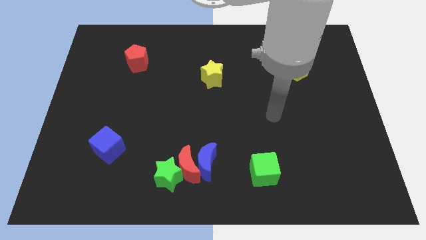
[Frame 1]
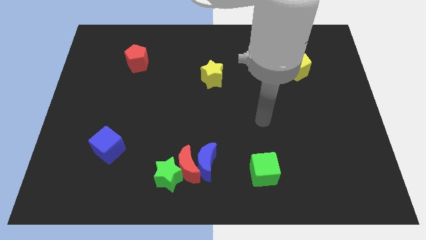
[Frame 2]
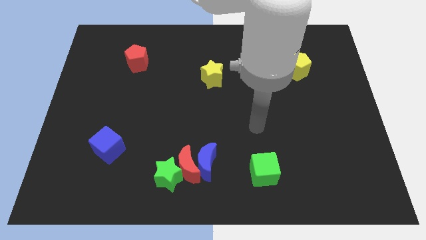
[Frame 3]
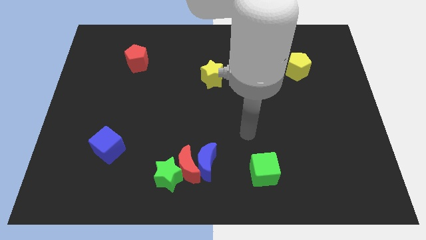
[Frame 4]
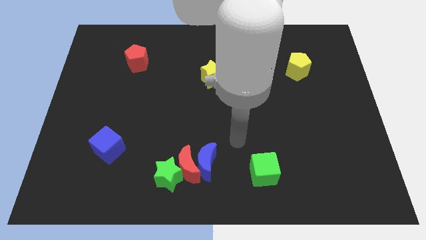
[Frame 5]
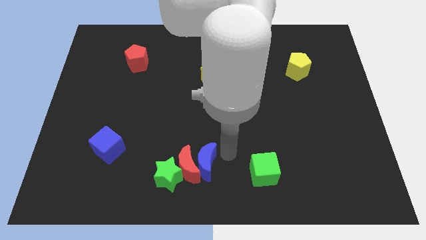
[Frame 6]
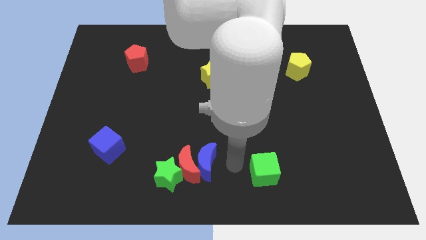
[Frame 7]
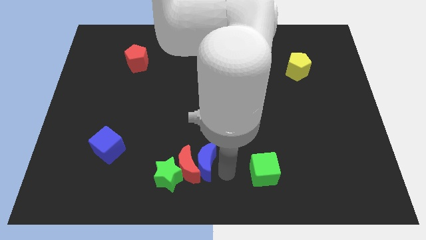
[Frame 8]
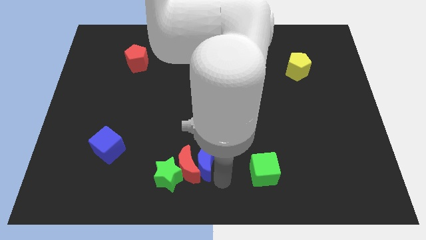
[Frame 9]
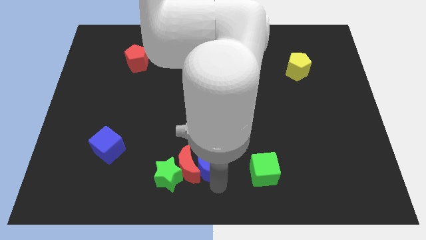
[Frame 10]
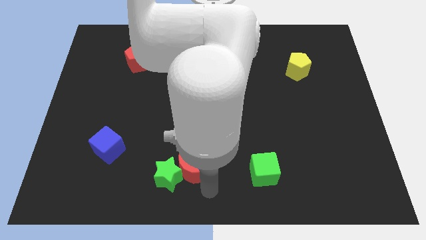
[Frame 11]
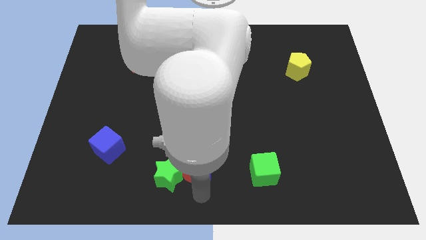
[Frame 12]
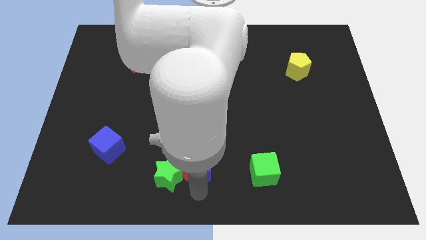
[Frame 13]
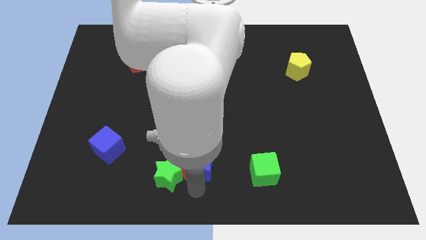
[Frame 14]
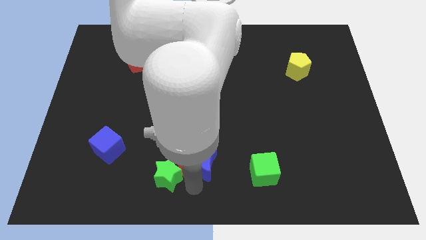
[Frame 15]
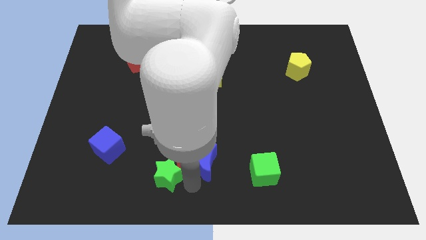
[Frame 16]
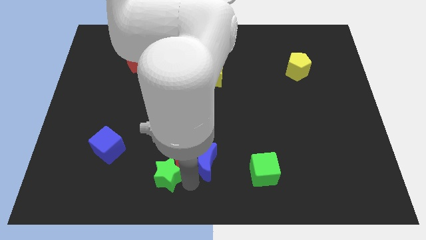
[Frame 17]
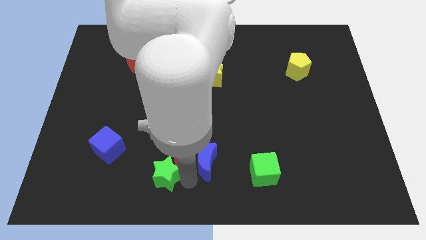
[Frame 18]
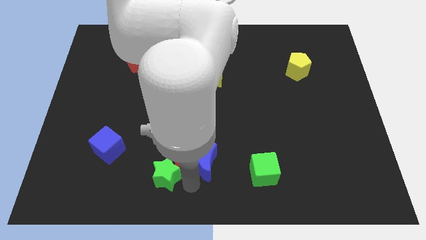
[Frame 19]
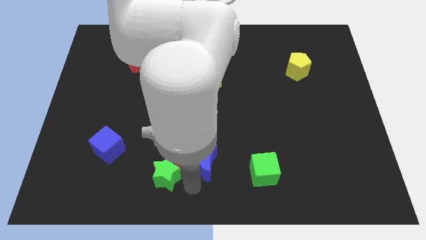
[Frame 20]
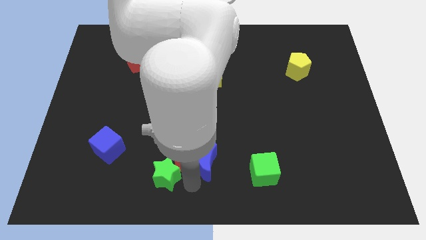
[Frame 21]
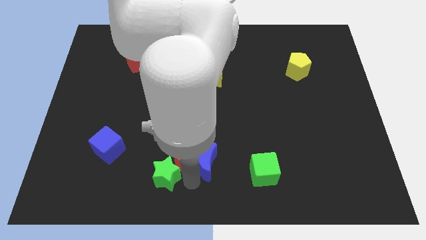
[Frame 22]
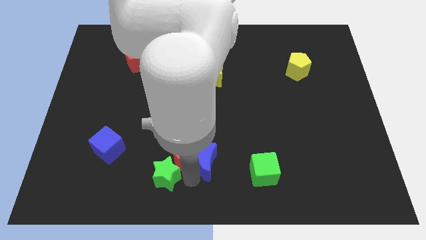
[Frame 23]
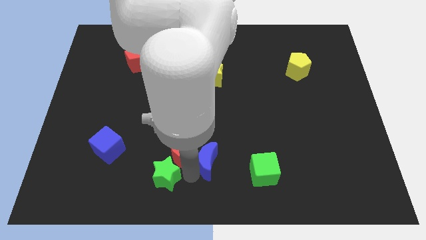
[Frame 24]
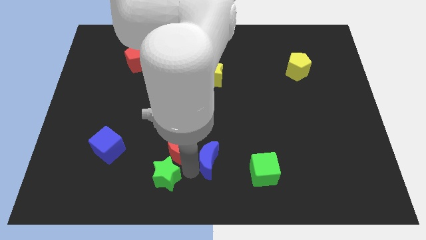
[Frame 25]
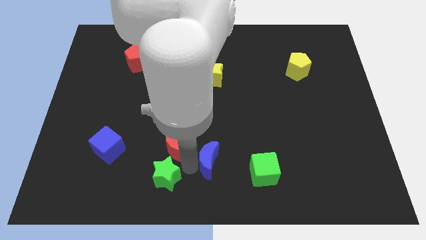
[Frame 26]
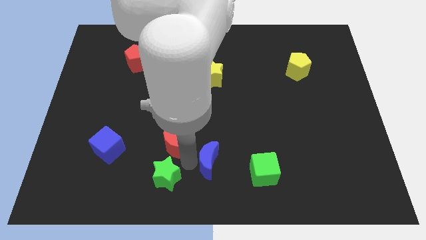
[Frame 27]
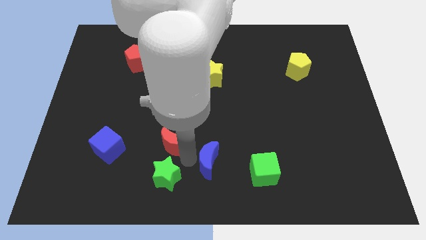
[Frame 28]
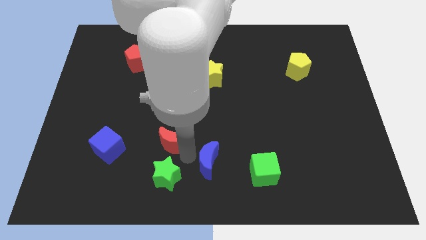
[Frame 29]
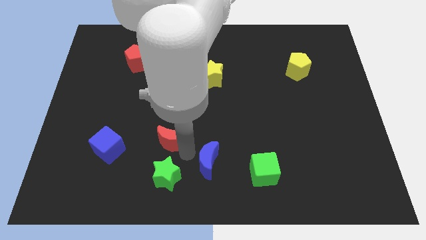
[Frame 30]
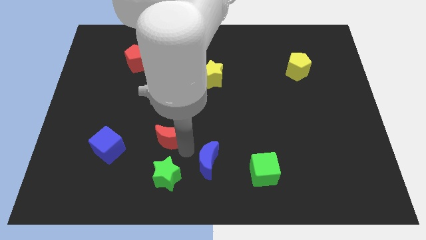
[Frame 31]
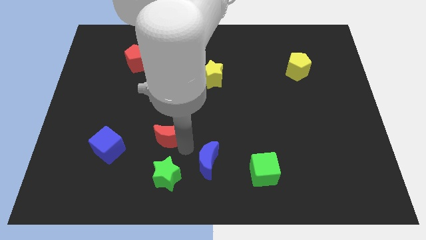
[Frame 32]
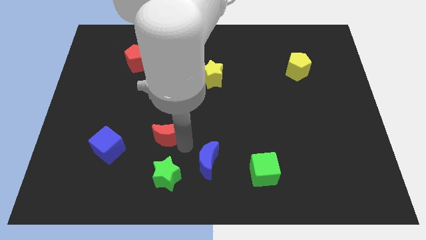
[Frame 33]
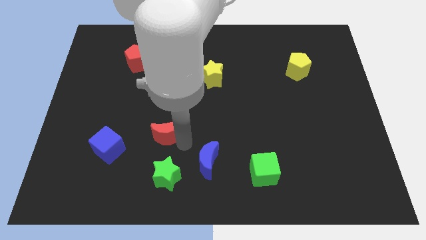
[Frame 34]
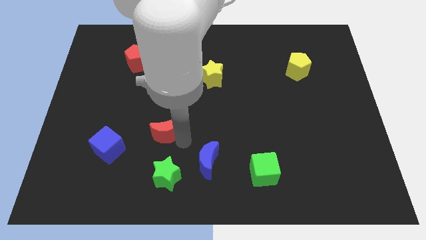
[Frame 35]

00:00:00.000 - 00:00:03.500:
separate the red moon from the blue moon and green star

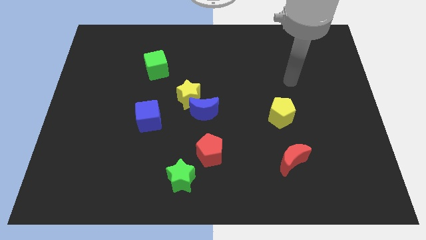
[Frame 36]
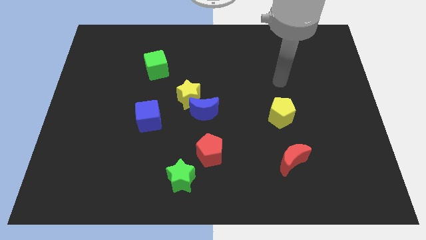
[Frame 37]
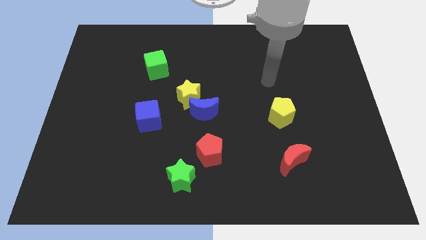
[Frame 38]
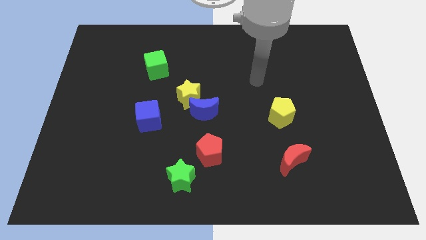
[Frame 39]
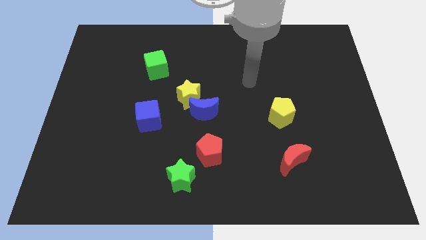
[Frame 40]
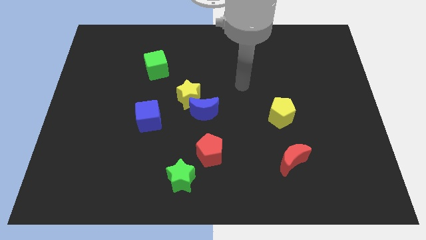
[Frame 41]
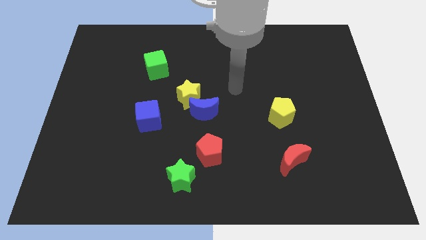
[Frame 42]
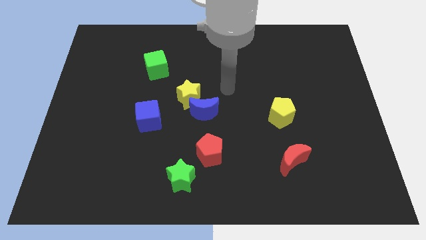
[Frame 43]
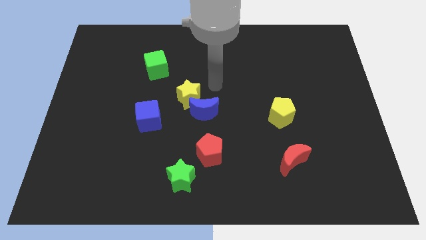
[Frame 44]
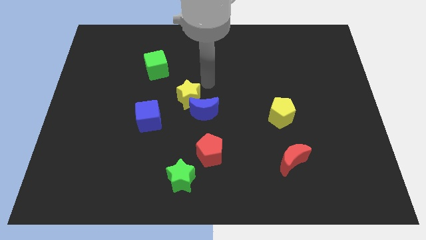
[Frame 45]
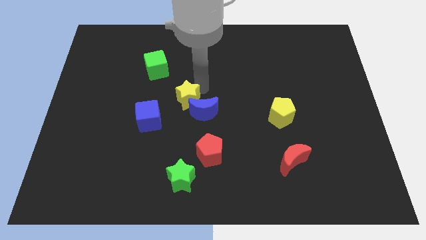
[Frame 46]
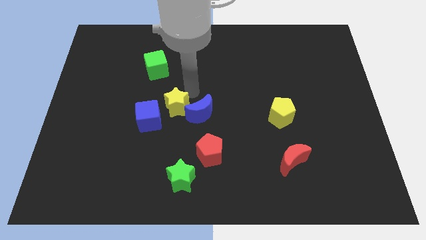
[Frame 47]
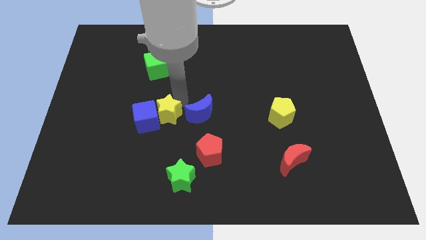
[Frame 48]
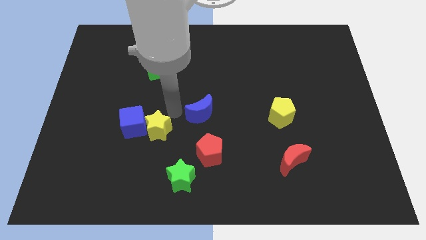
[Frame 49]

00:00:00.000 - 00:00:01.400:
separate the blue moon from the yellow star

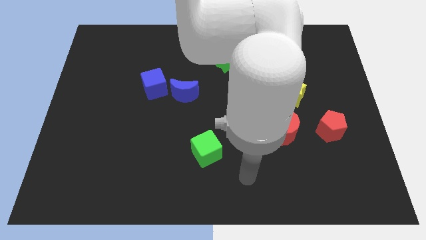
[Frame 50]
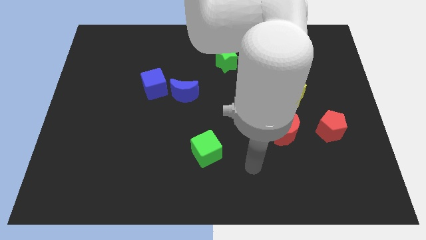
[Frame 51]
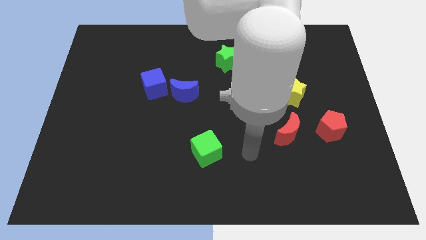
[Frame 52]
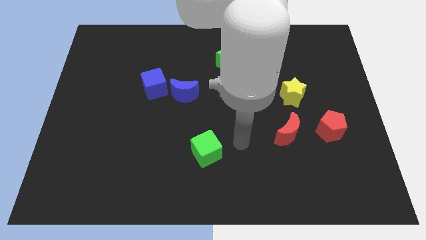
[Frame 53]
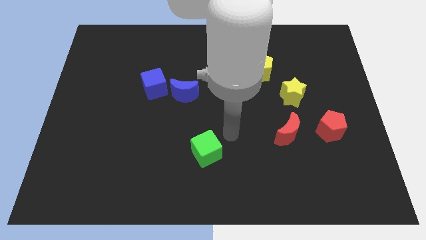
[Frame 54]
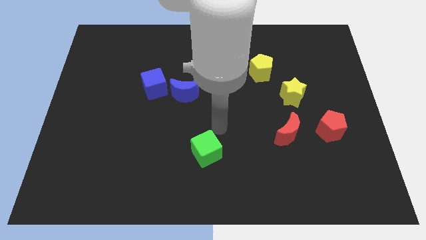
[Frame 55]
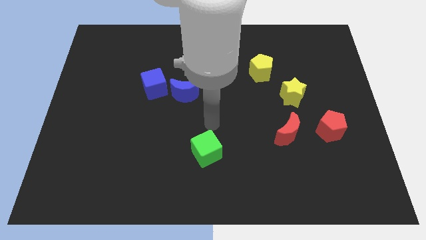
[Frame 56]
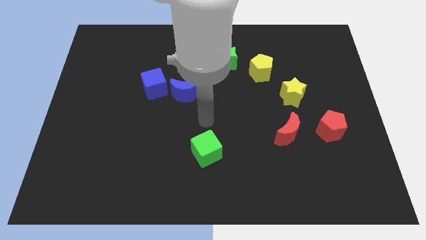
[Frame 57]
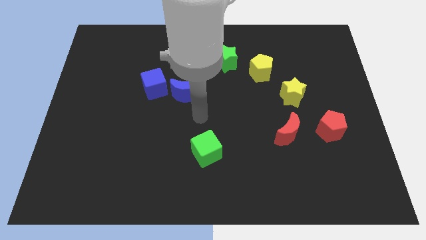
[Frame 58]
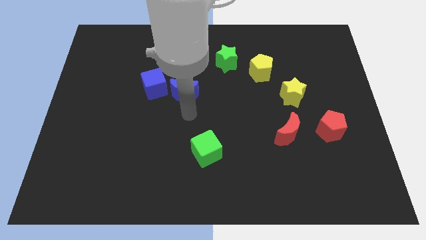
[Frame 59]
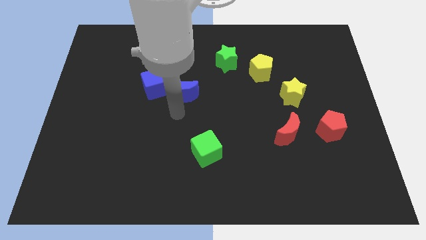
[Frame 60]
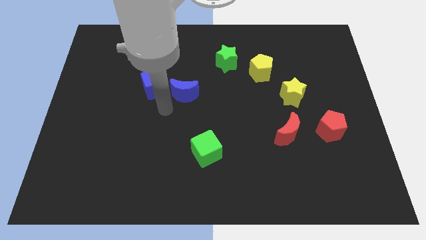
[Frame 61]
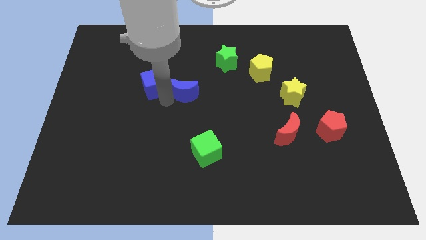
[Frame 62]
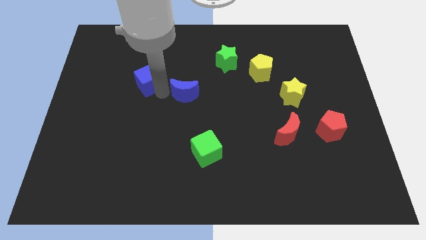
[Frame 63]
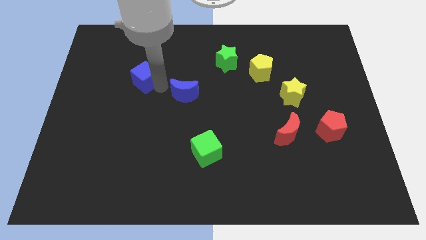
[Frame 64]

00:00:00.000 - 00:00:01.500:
pull the blue moon apart from the blue cube

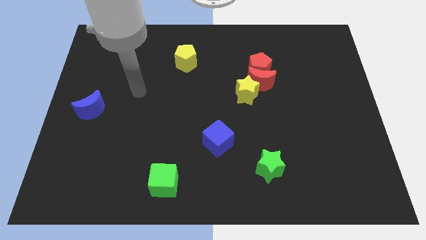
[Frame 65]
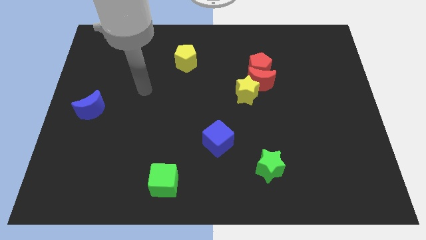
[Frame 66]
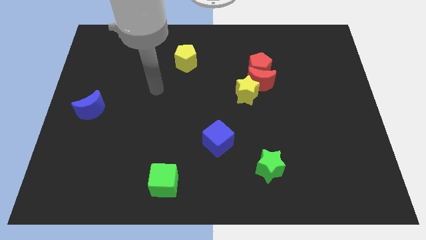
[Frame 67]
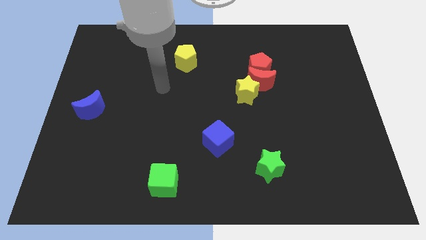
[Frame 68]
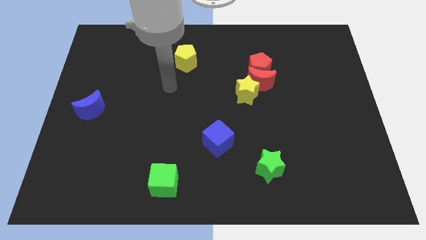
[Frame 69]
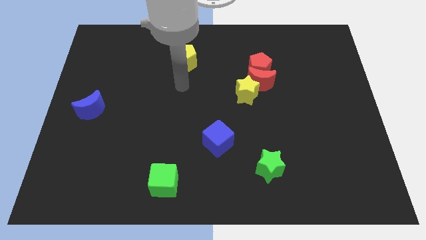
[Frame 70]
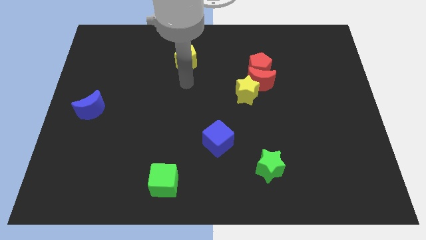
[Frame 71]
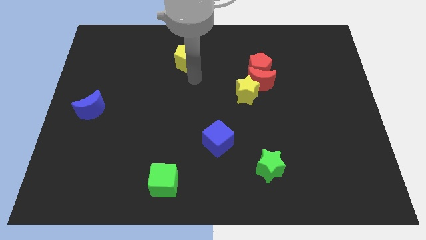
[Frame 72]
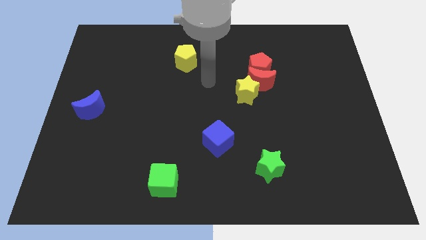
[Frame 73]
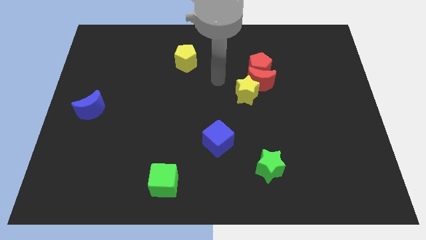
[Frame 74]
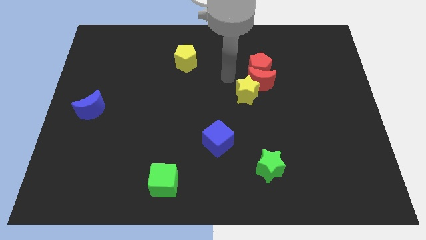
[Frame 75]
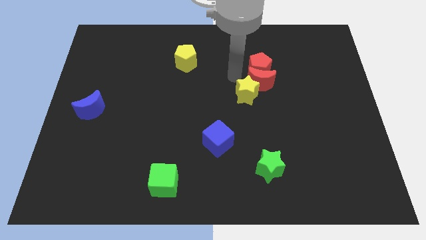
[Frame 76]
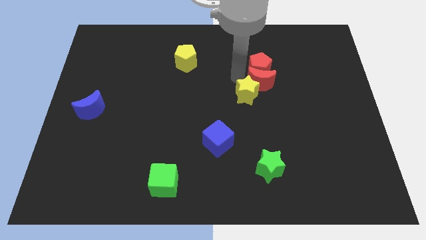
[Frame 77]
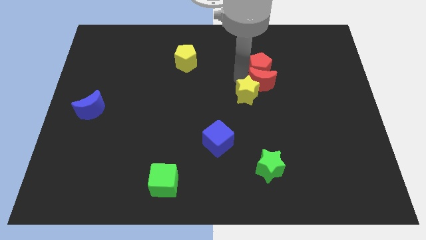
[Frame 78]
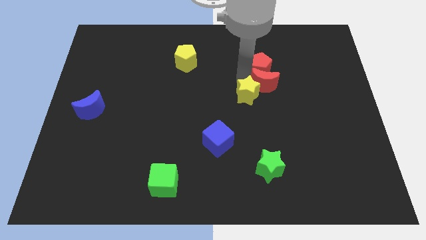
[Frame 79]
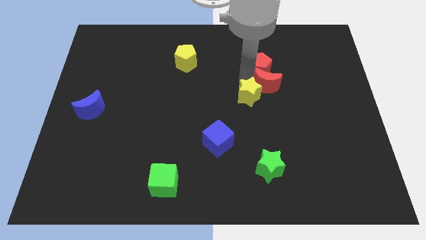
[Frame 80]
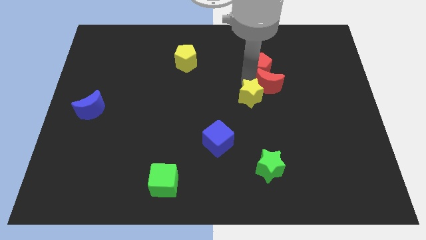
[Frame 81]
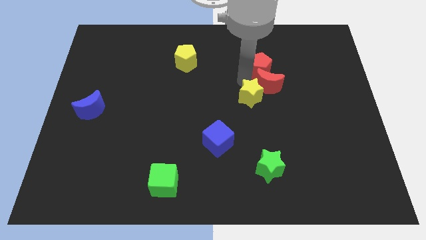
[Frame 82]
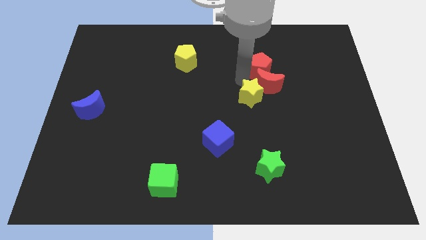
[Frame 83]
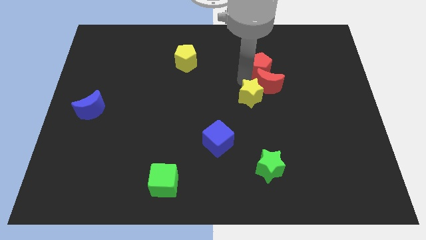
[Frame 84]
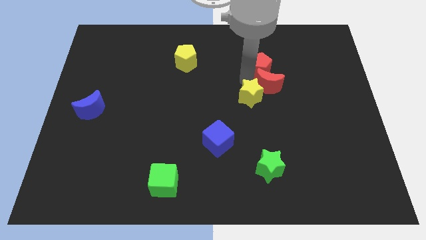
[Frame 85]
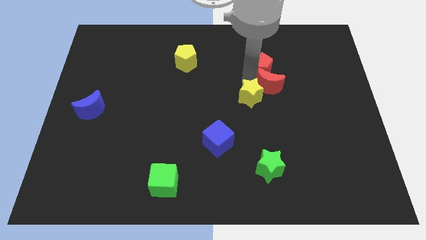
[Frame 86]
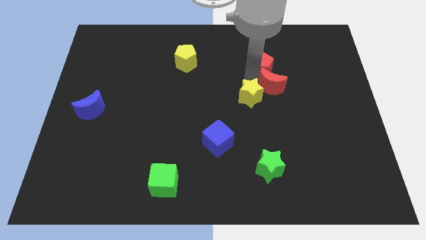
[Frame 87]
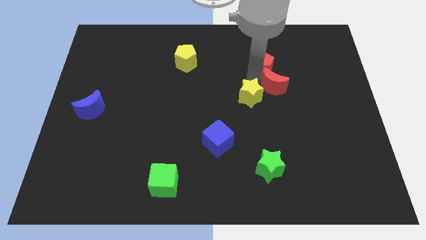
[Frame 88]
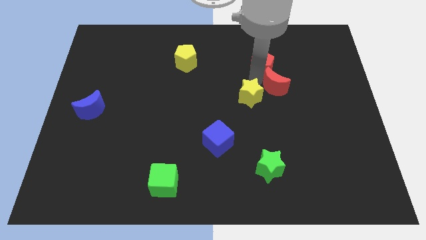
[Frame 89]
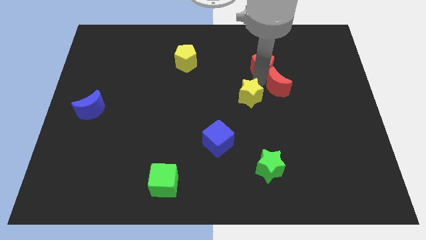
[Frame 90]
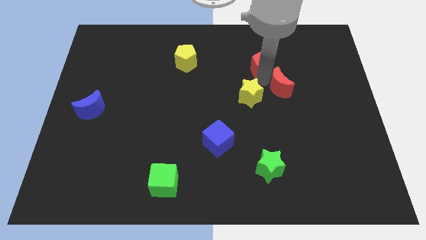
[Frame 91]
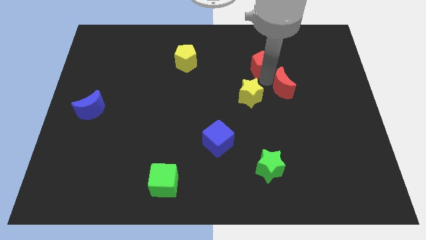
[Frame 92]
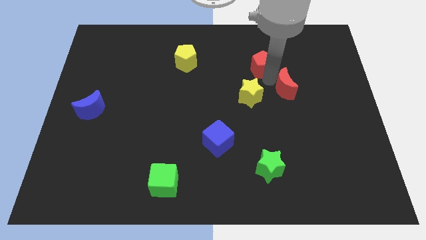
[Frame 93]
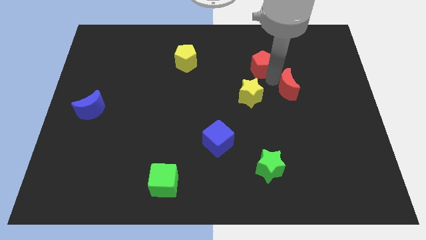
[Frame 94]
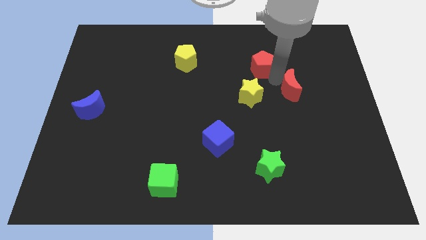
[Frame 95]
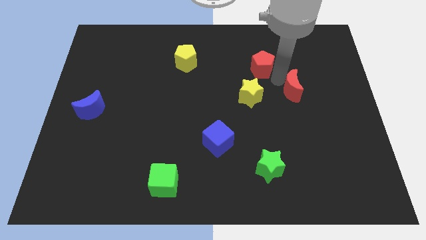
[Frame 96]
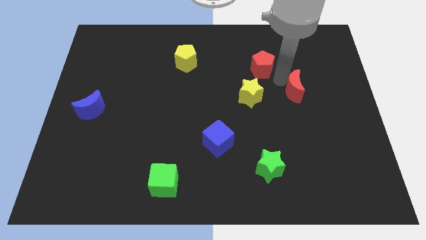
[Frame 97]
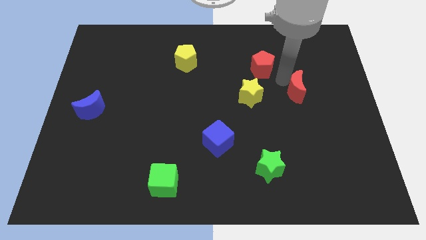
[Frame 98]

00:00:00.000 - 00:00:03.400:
move the red moon away from the red pentagon and yellow star
